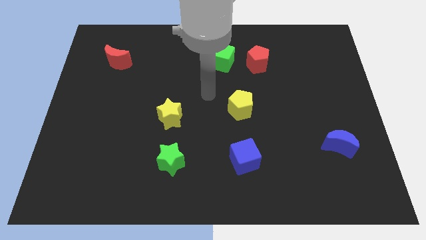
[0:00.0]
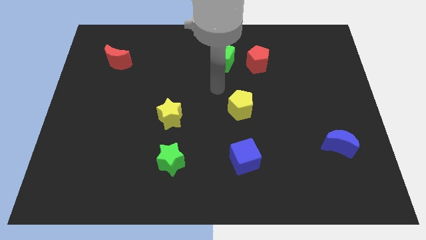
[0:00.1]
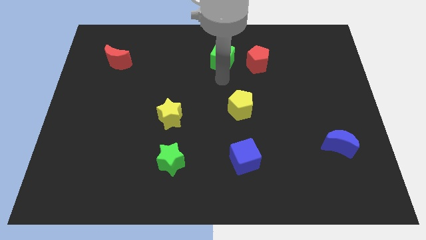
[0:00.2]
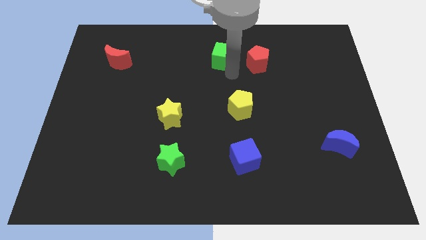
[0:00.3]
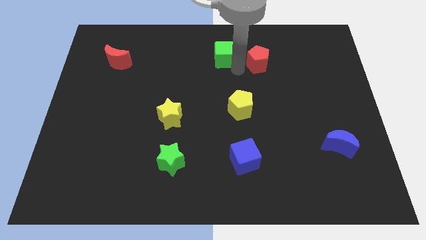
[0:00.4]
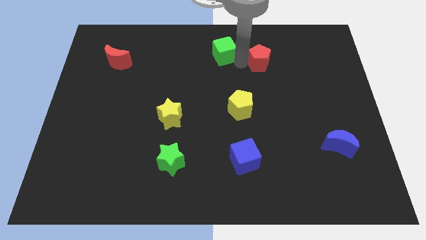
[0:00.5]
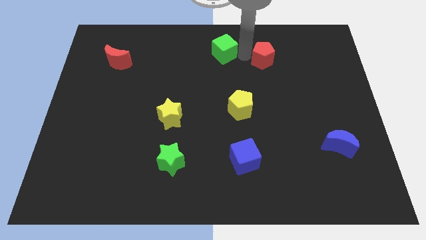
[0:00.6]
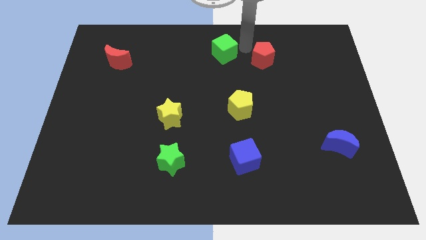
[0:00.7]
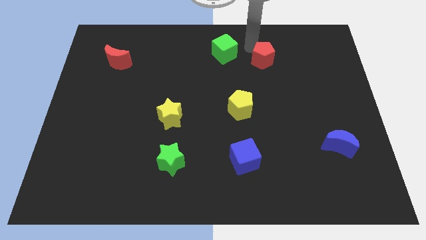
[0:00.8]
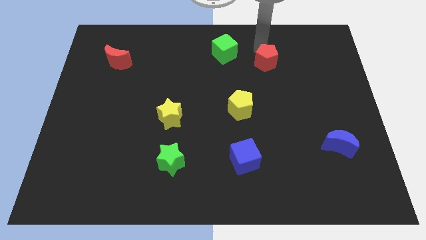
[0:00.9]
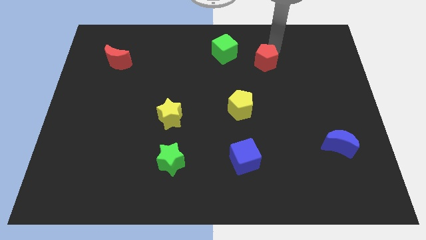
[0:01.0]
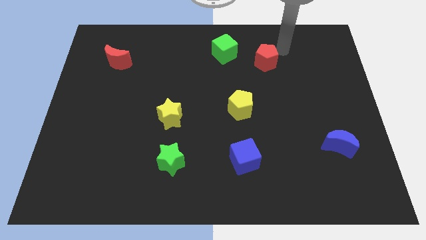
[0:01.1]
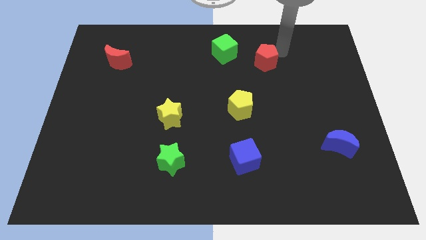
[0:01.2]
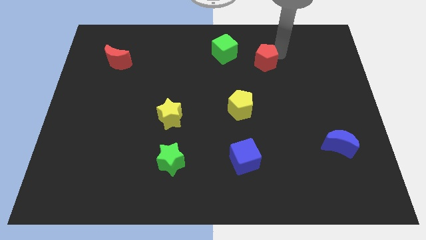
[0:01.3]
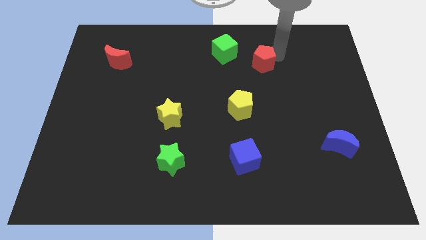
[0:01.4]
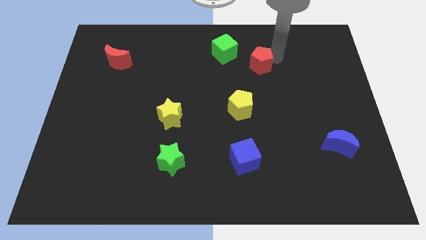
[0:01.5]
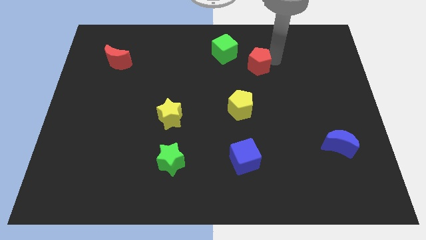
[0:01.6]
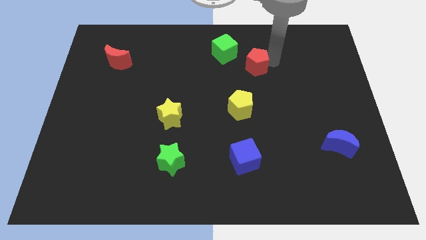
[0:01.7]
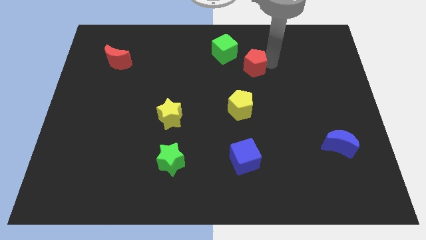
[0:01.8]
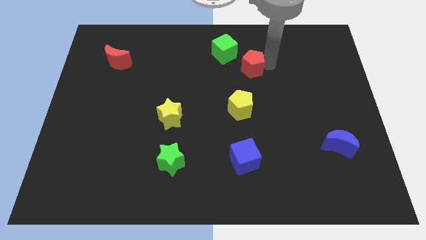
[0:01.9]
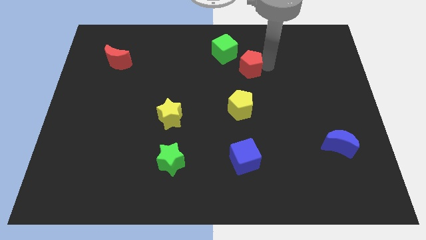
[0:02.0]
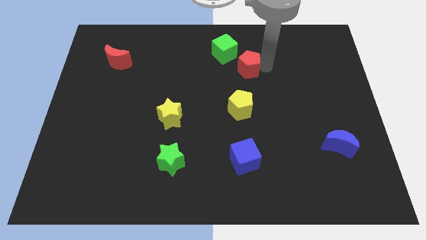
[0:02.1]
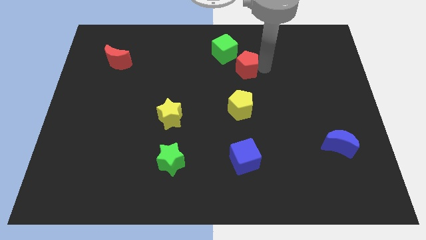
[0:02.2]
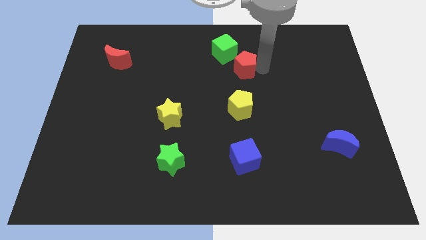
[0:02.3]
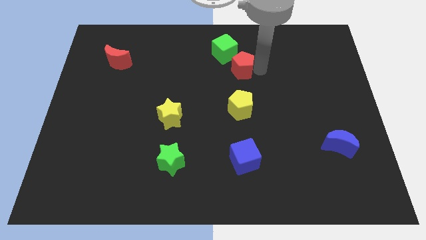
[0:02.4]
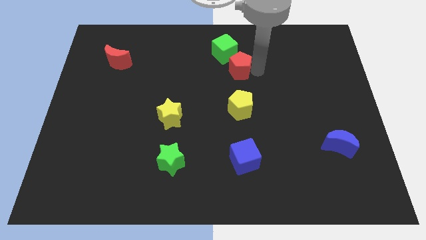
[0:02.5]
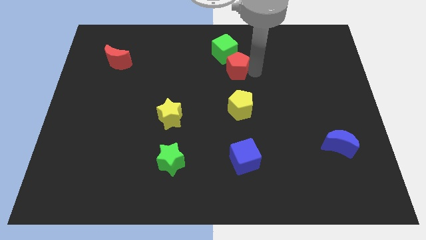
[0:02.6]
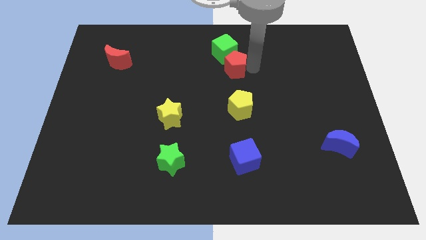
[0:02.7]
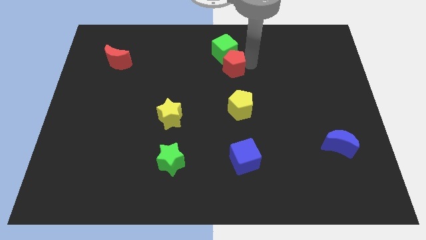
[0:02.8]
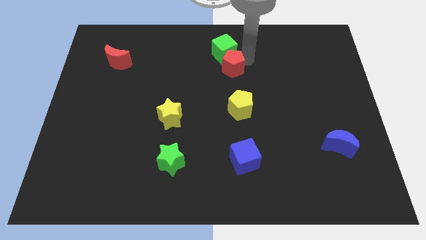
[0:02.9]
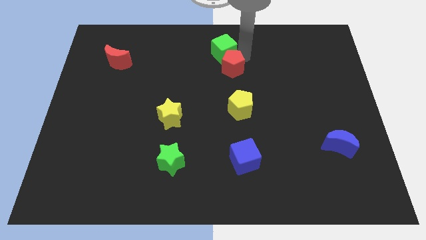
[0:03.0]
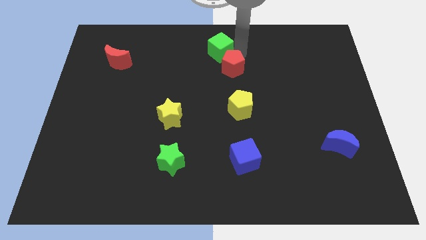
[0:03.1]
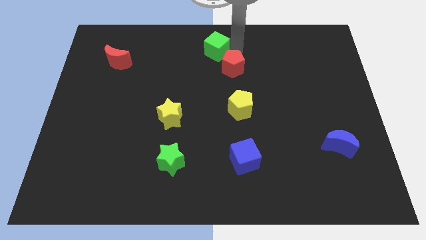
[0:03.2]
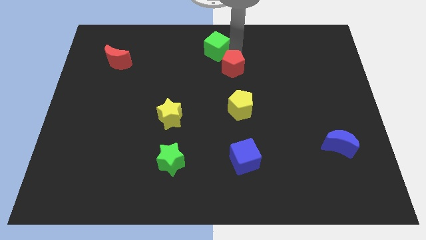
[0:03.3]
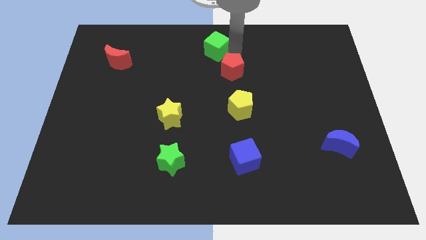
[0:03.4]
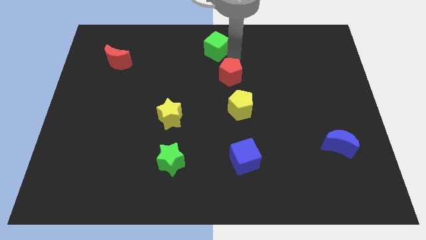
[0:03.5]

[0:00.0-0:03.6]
push the red pentagon downwards and to the left slightly

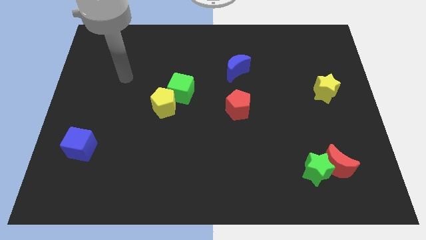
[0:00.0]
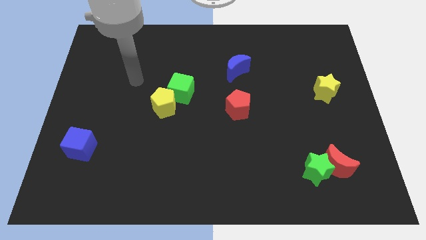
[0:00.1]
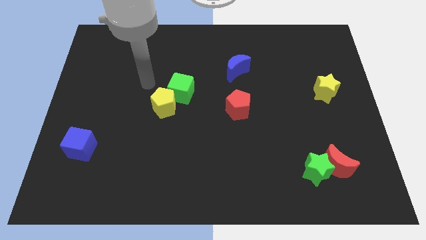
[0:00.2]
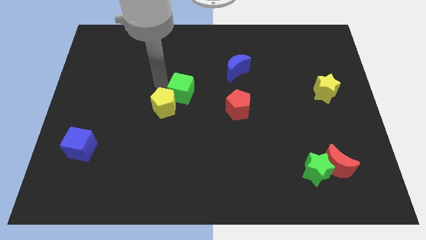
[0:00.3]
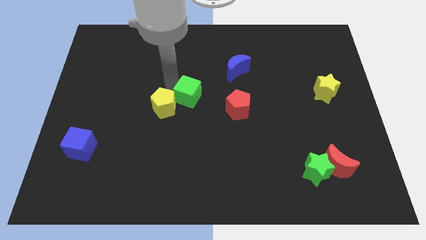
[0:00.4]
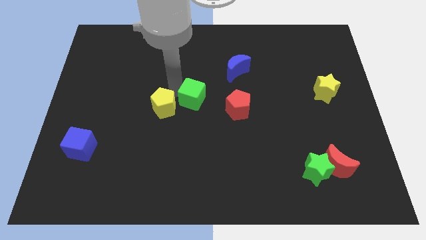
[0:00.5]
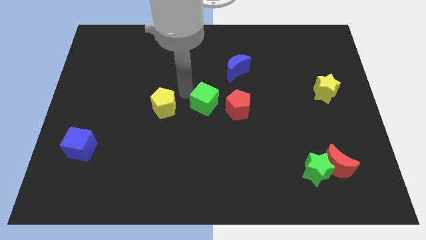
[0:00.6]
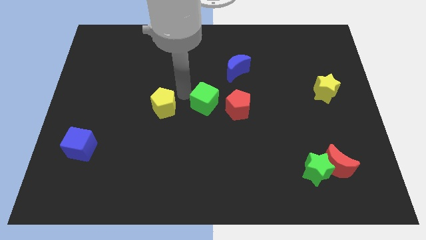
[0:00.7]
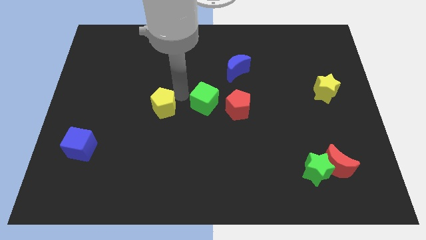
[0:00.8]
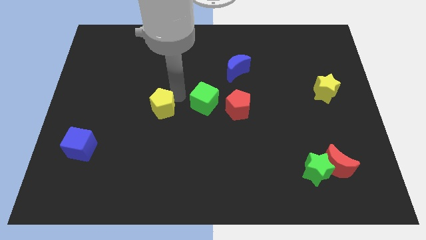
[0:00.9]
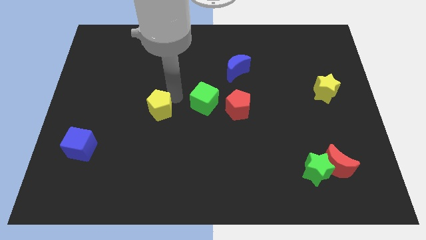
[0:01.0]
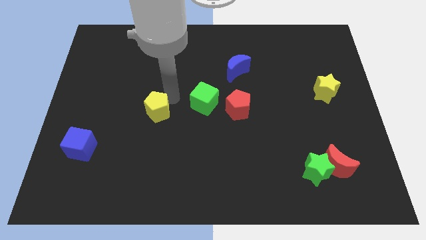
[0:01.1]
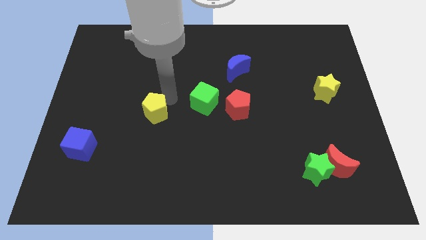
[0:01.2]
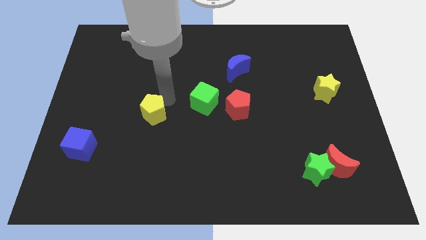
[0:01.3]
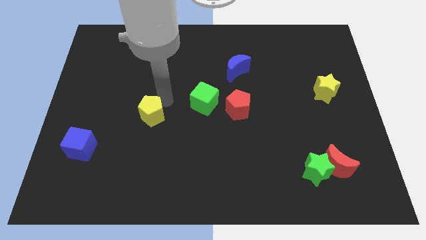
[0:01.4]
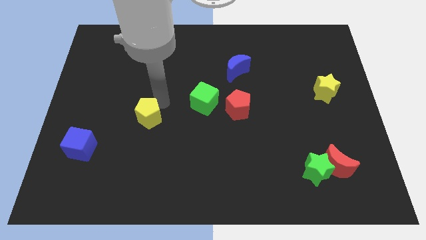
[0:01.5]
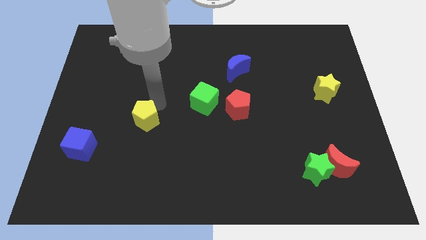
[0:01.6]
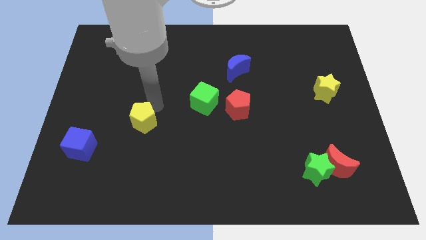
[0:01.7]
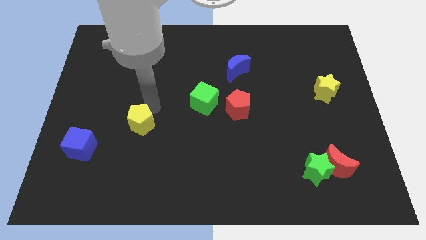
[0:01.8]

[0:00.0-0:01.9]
push the yellow pentagon somewhat down and then to the left

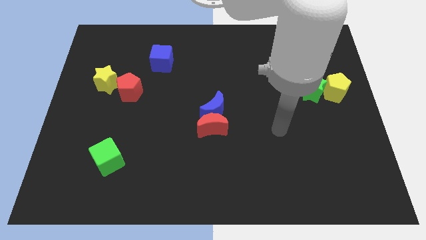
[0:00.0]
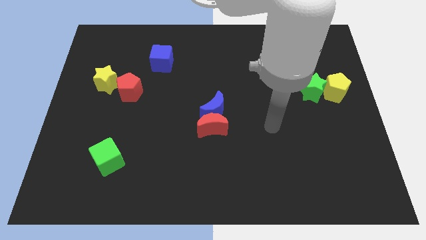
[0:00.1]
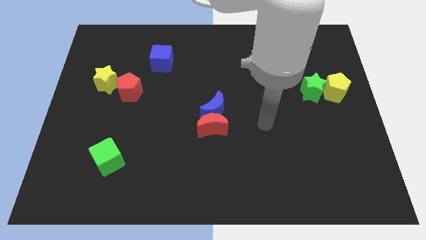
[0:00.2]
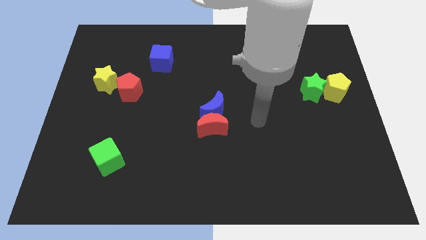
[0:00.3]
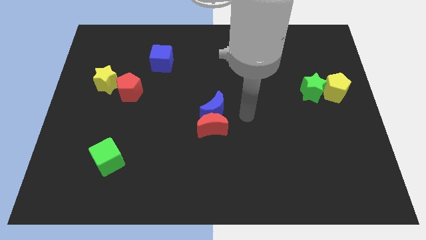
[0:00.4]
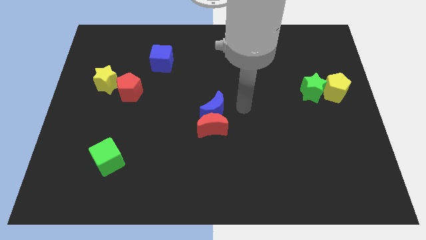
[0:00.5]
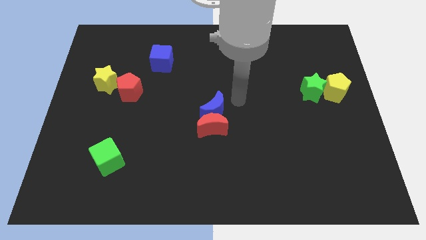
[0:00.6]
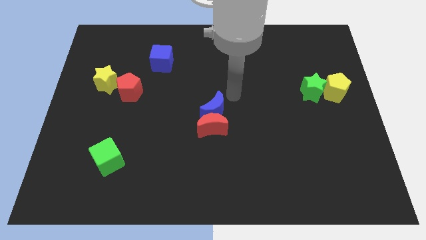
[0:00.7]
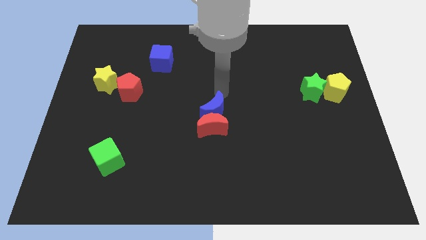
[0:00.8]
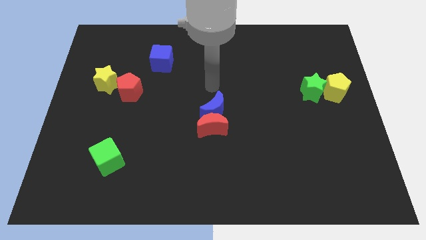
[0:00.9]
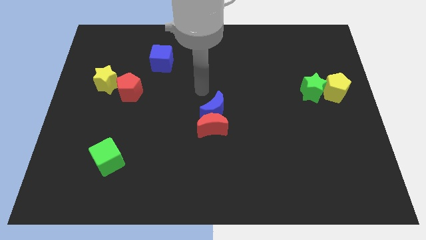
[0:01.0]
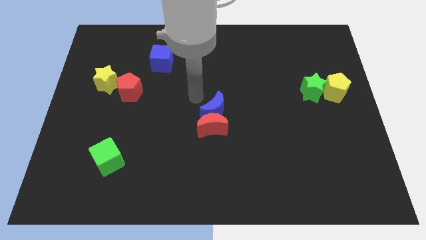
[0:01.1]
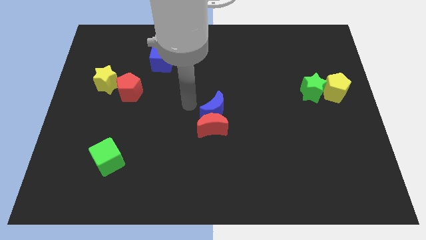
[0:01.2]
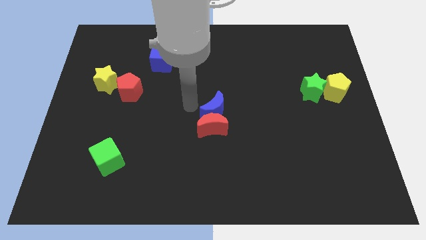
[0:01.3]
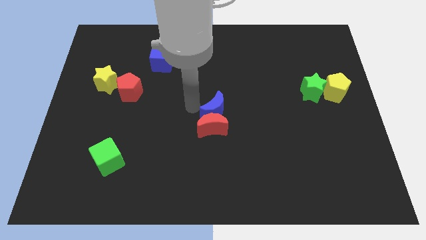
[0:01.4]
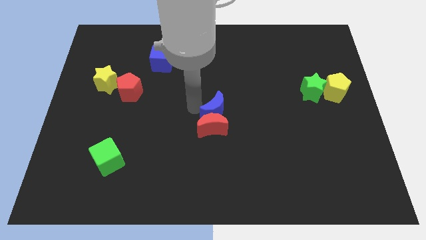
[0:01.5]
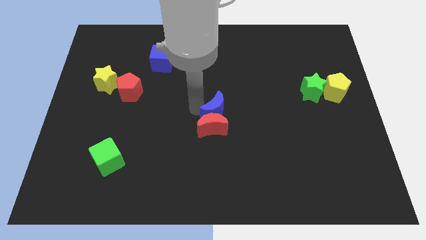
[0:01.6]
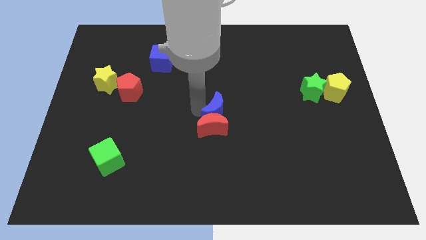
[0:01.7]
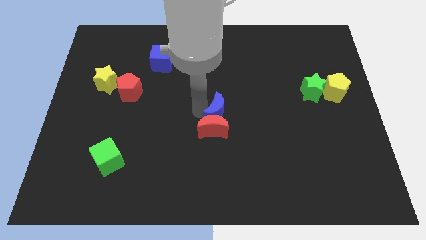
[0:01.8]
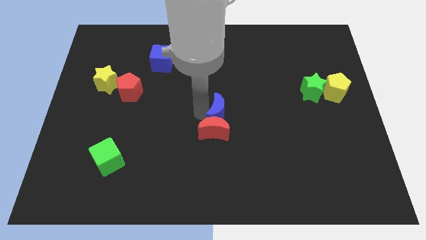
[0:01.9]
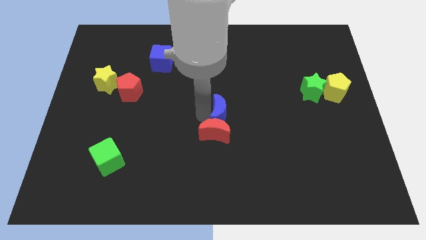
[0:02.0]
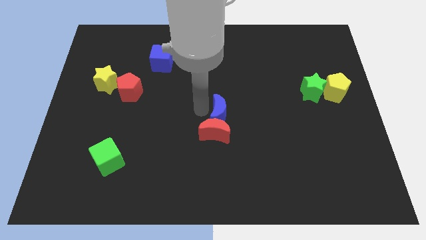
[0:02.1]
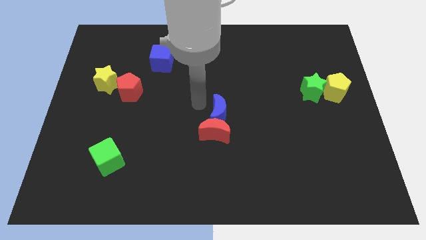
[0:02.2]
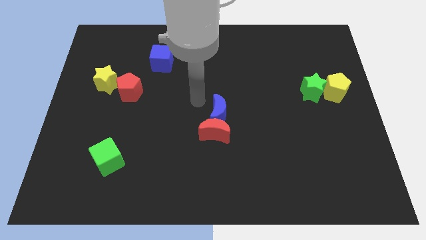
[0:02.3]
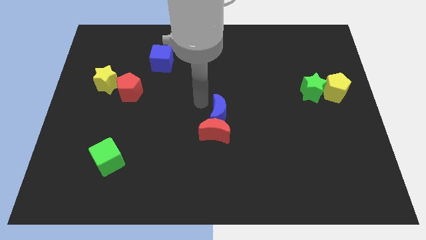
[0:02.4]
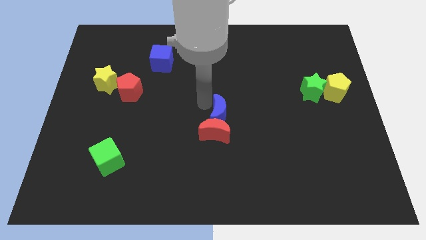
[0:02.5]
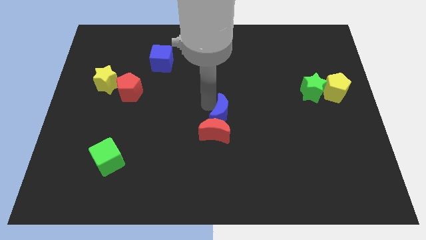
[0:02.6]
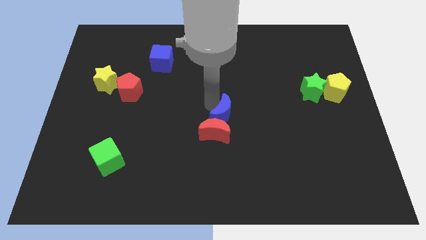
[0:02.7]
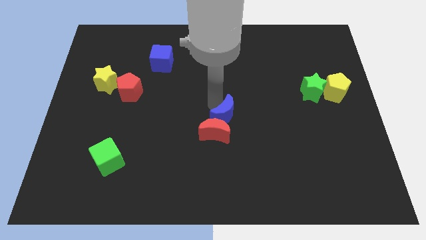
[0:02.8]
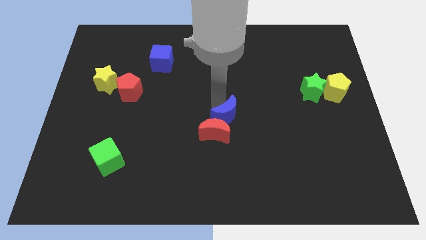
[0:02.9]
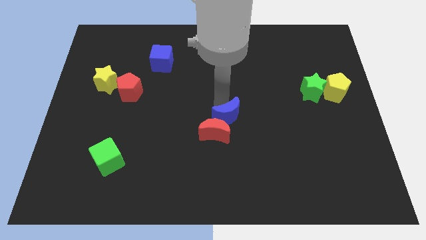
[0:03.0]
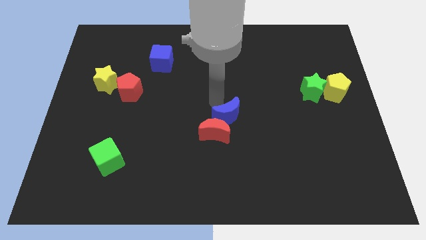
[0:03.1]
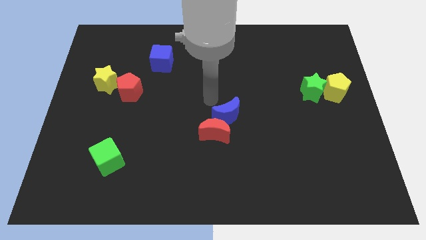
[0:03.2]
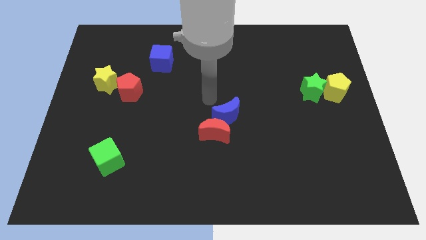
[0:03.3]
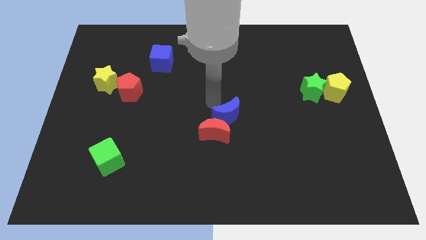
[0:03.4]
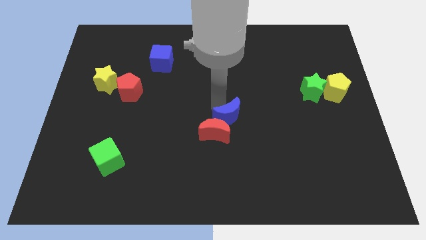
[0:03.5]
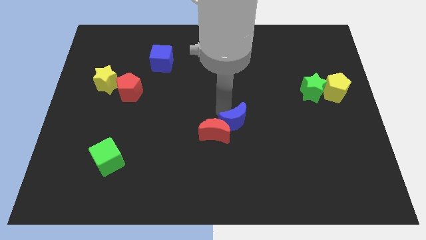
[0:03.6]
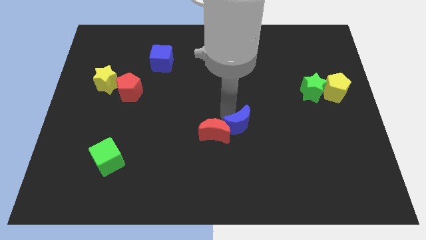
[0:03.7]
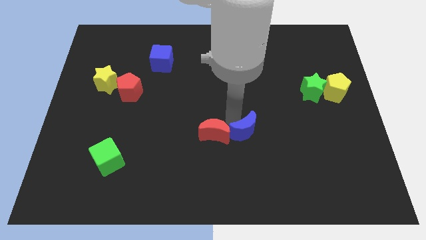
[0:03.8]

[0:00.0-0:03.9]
slightly push the blue moon downwards and right
